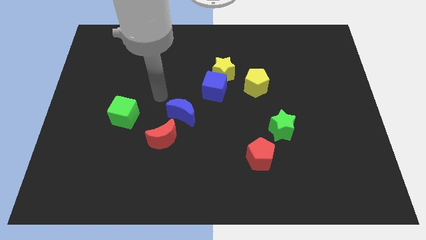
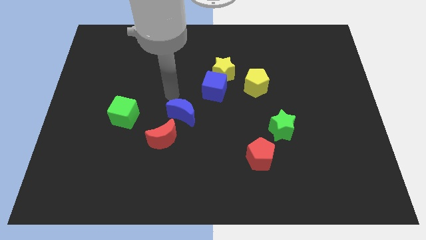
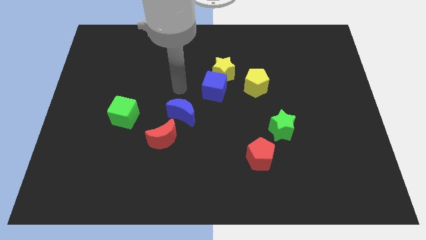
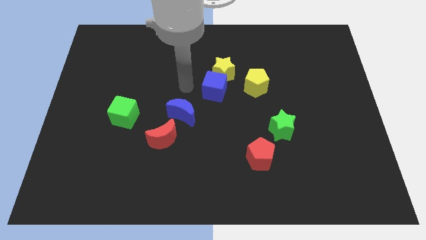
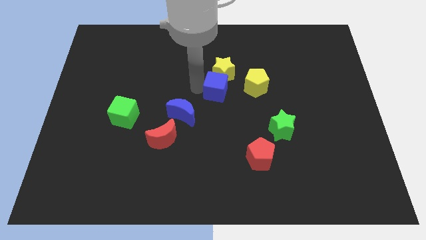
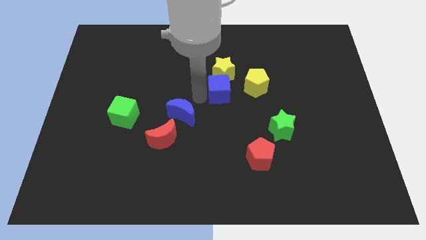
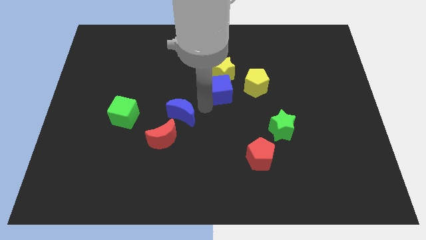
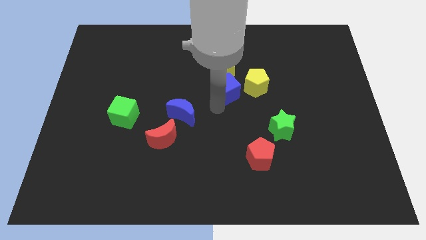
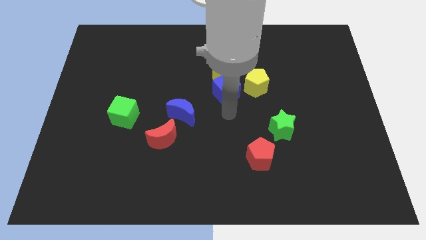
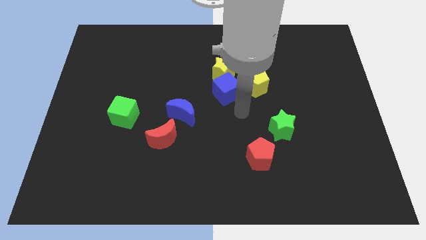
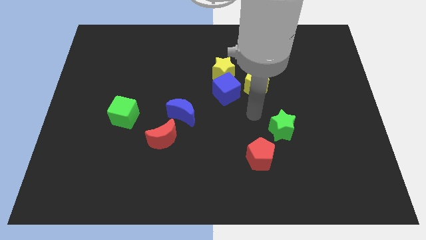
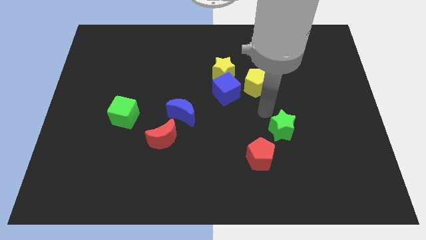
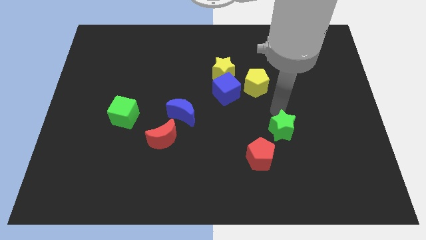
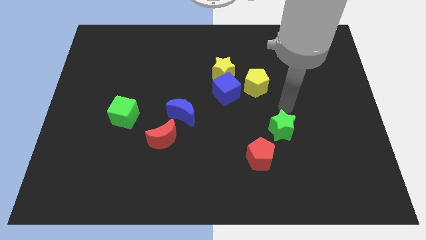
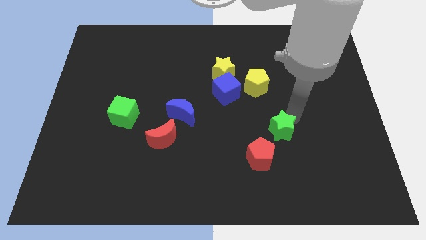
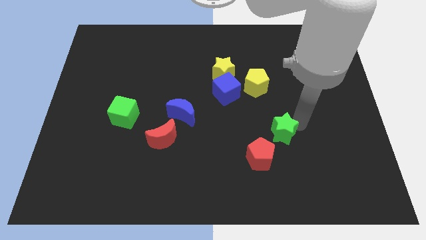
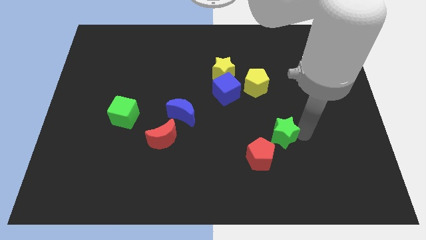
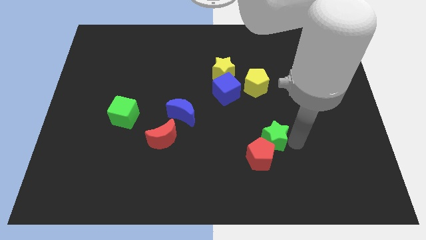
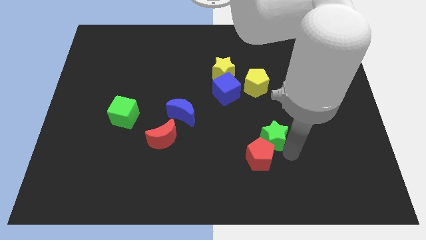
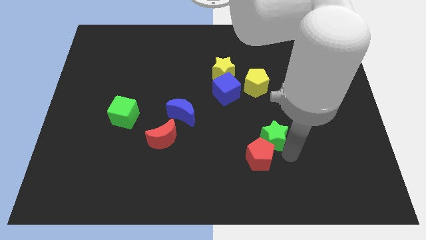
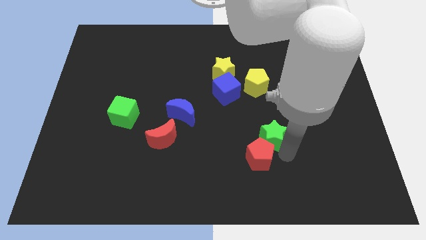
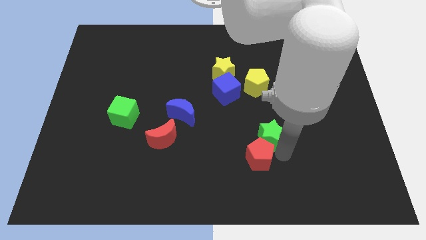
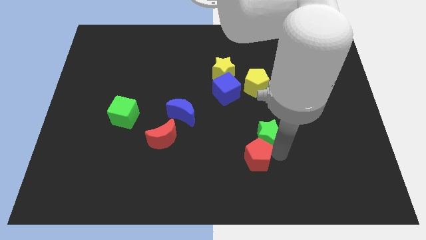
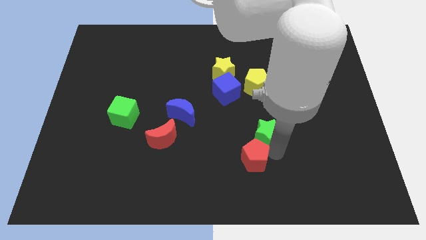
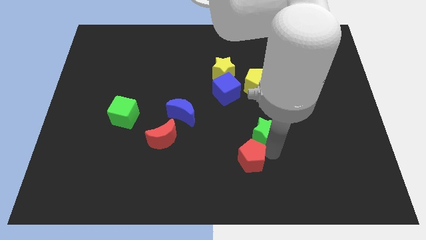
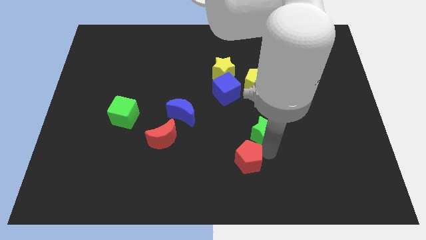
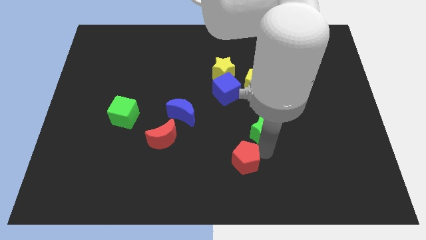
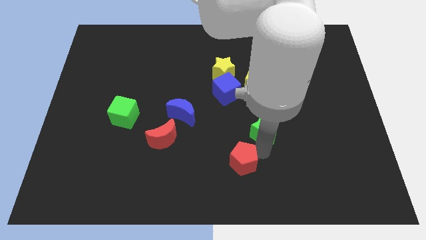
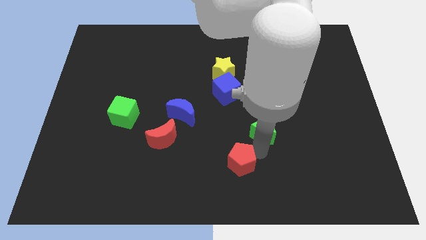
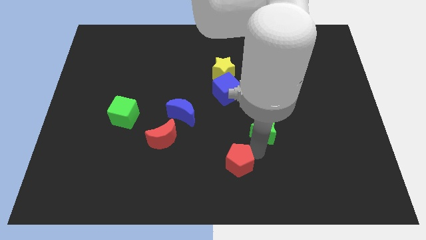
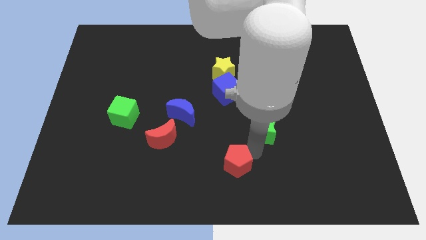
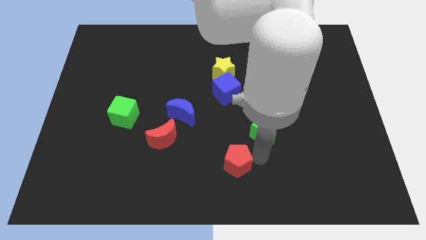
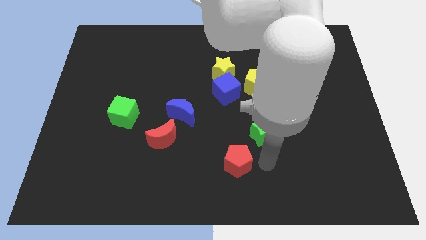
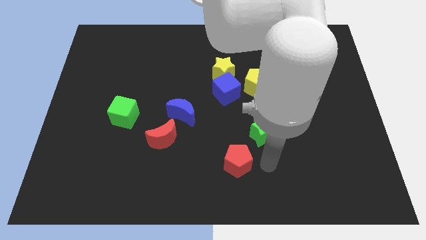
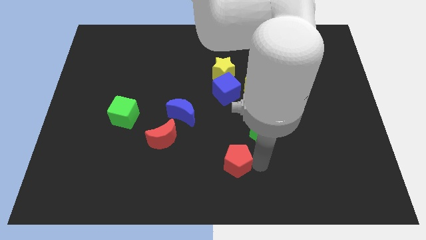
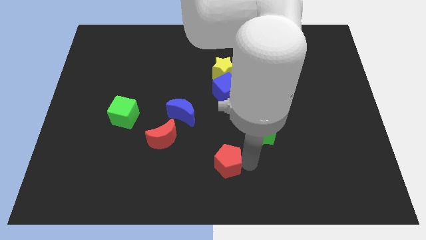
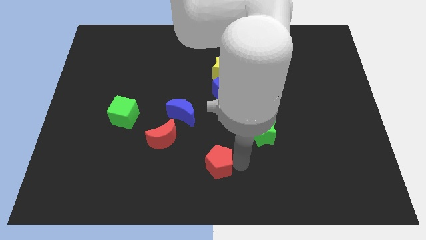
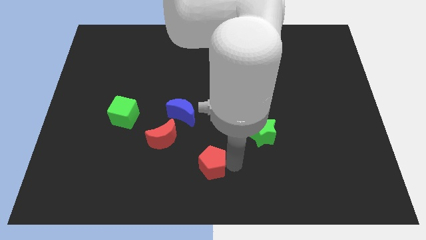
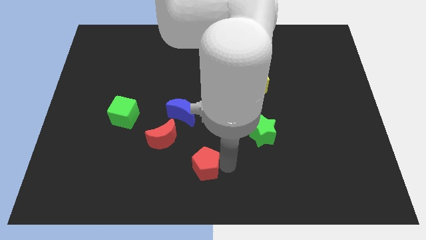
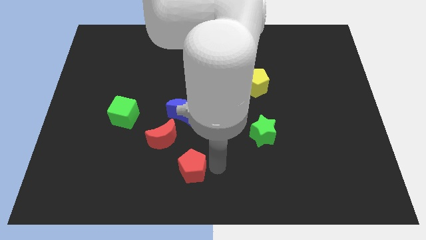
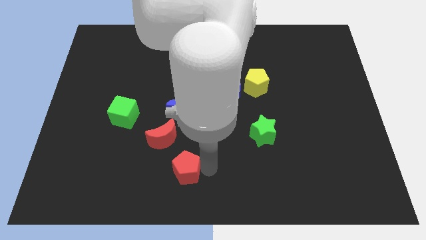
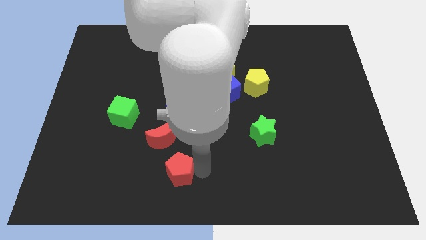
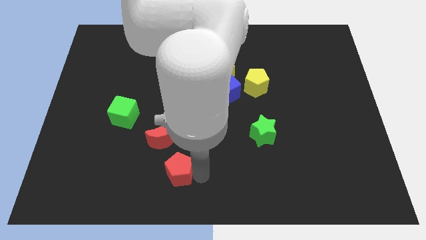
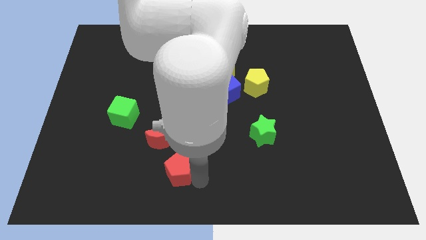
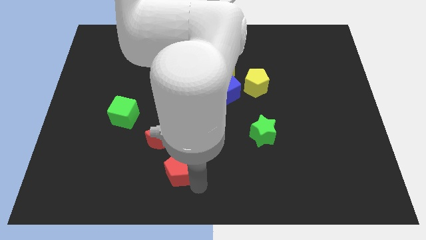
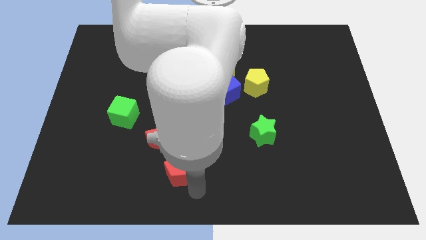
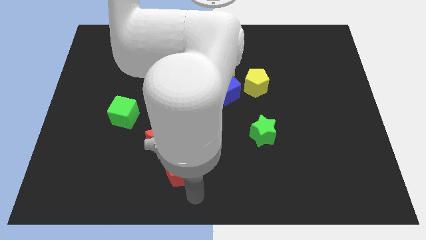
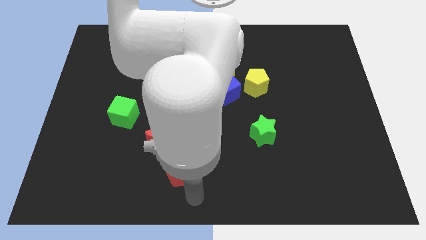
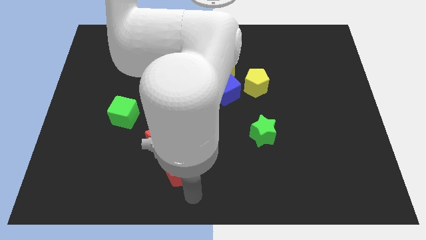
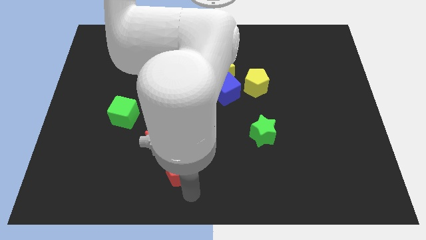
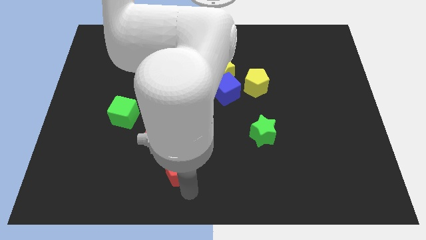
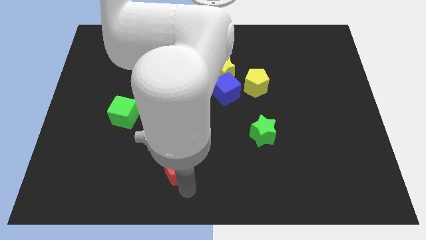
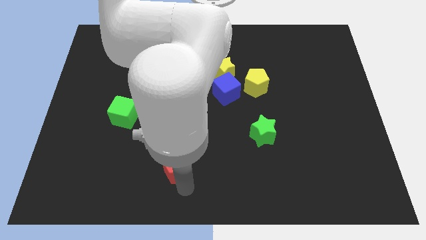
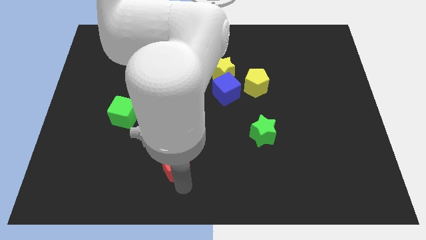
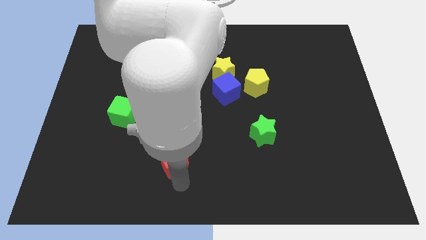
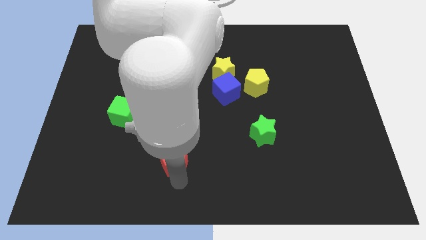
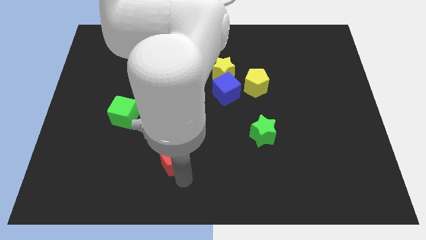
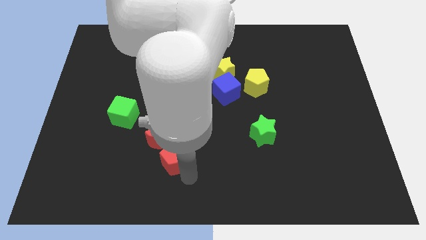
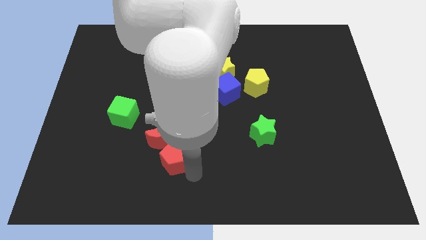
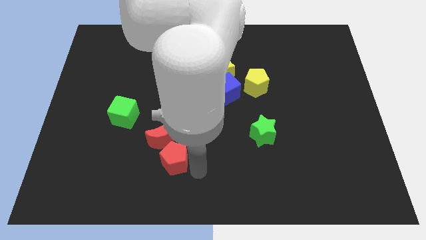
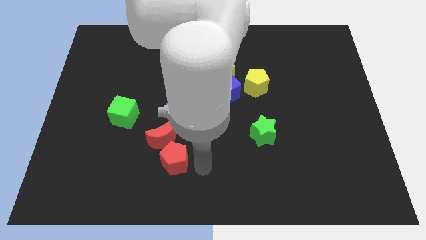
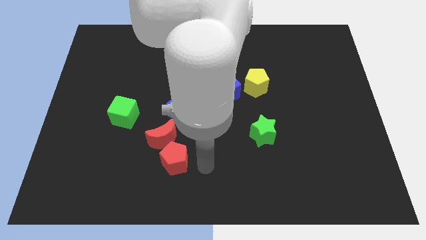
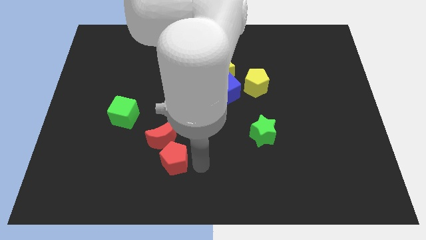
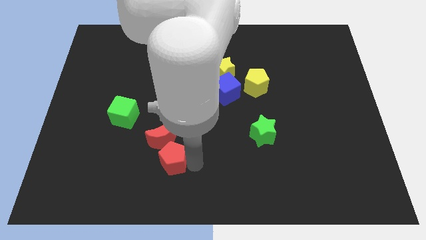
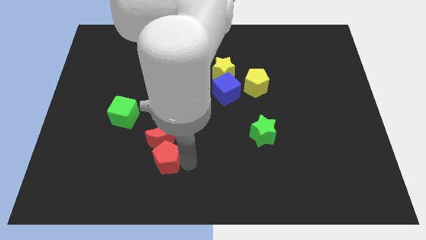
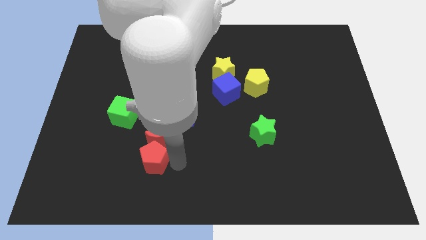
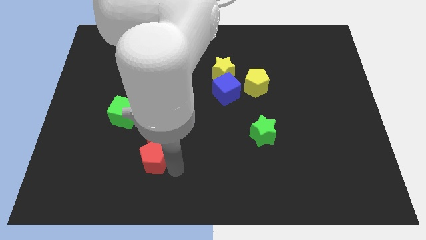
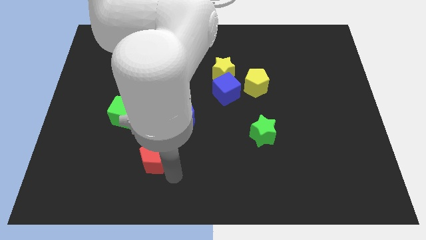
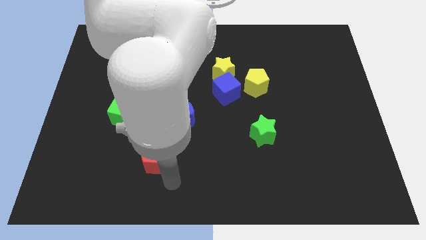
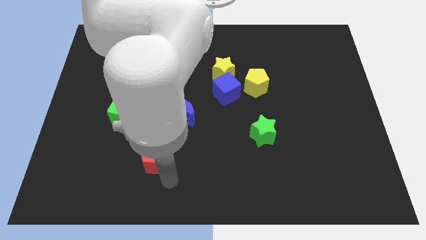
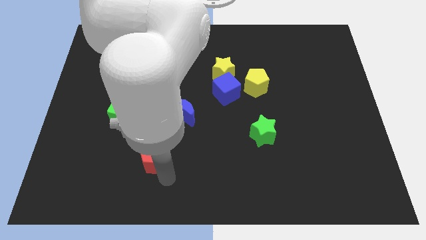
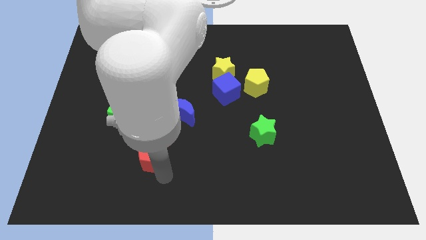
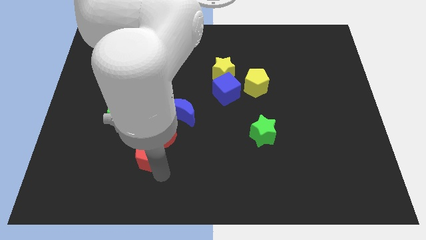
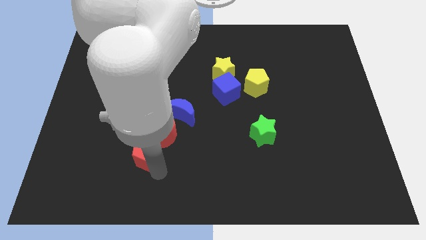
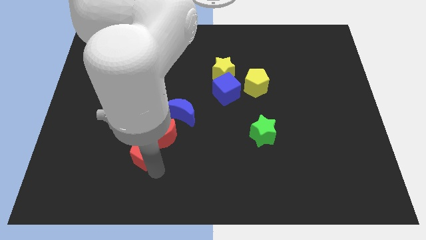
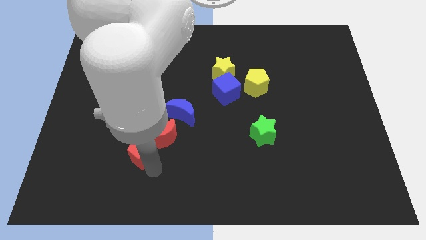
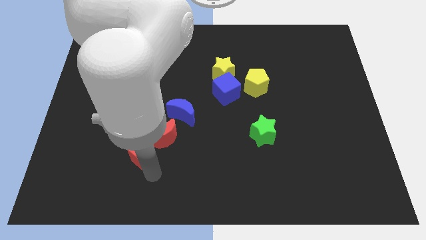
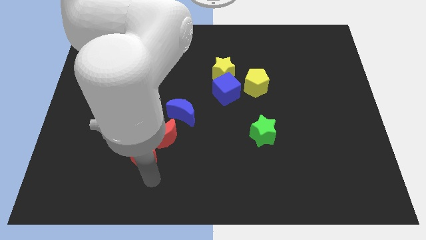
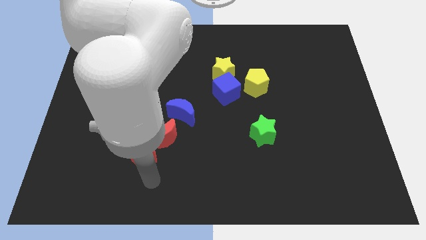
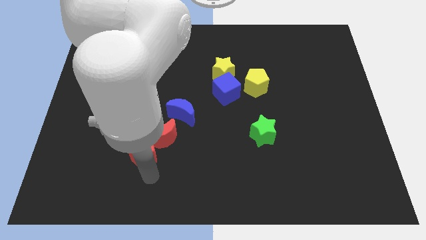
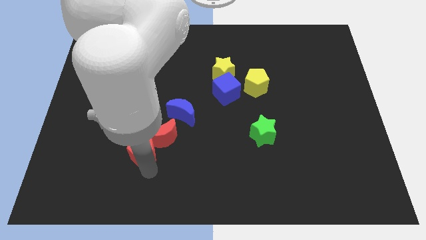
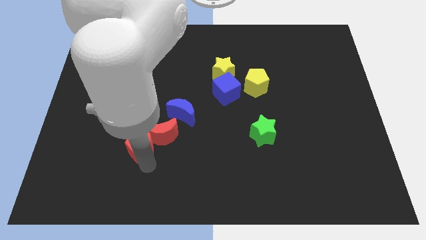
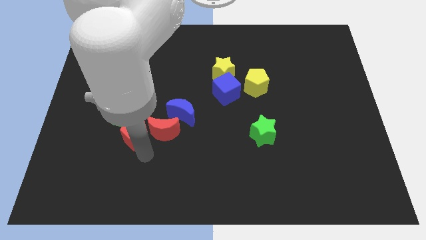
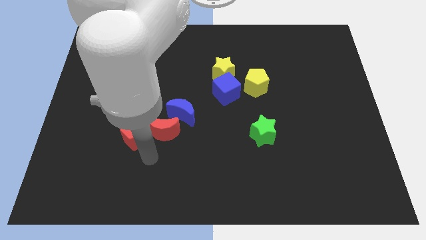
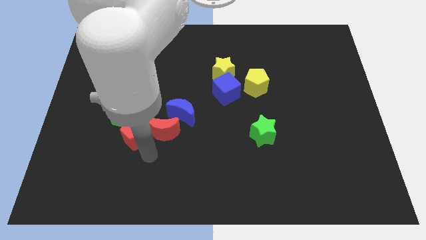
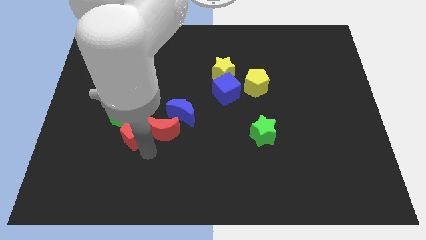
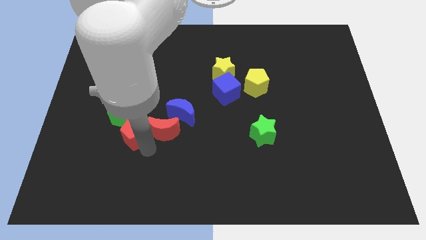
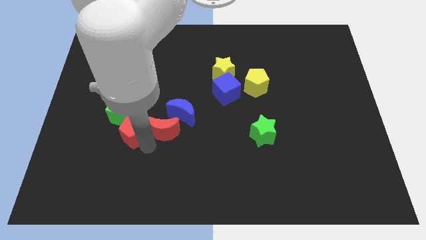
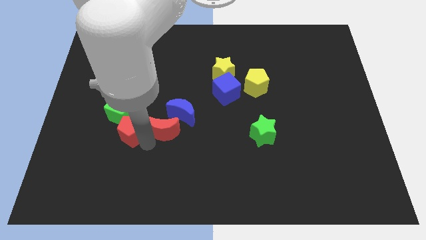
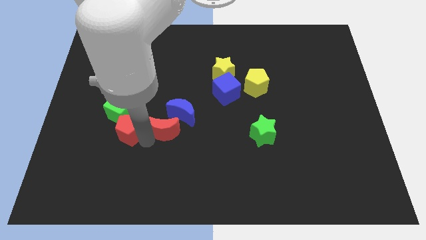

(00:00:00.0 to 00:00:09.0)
put the red pentagon close to the green cube
